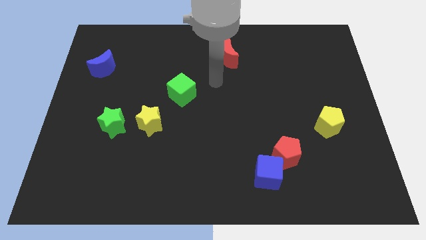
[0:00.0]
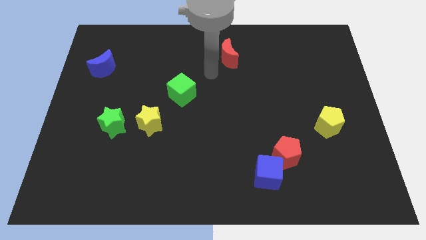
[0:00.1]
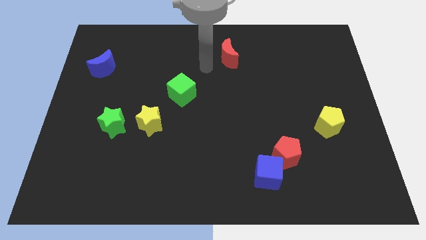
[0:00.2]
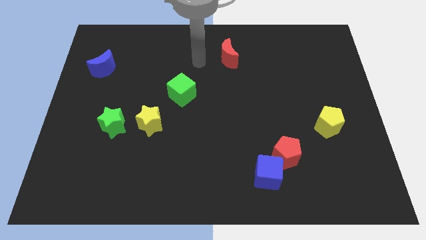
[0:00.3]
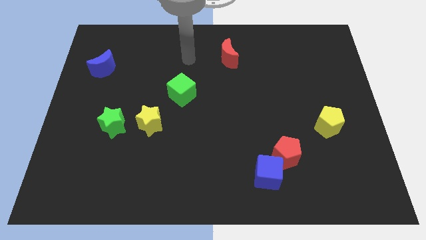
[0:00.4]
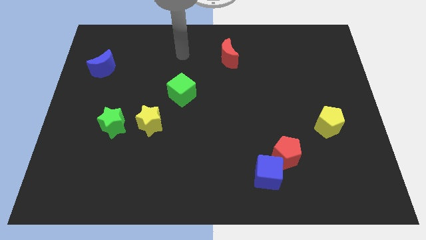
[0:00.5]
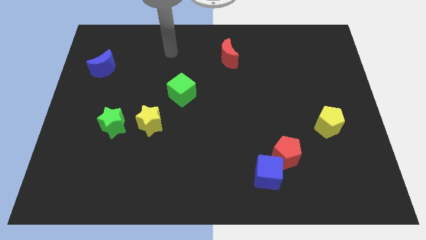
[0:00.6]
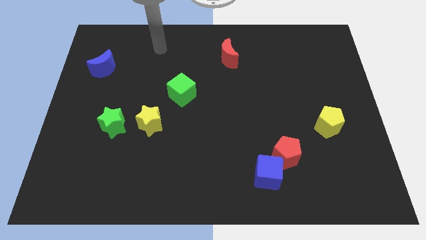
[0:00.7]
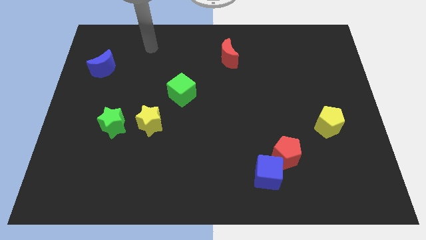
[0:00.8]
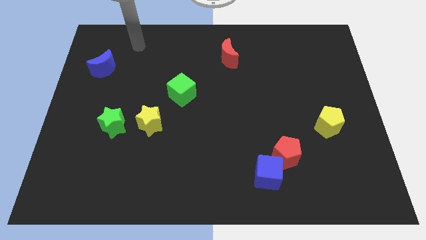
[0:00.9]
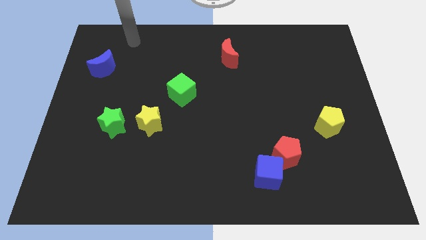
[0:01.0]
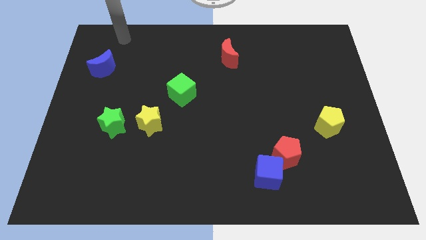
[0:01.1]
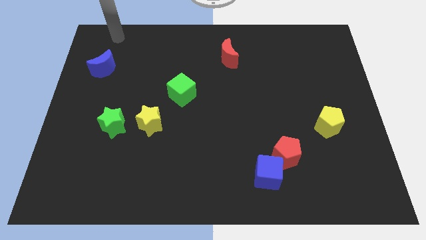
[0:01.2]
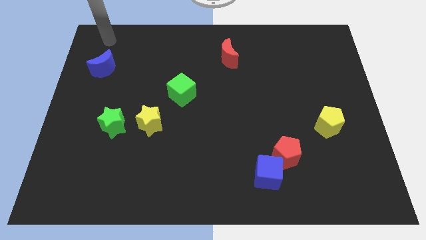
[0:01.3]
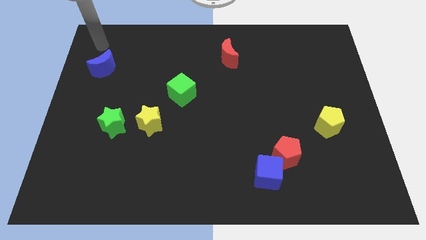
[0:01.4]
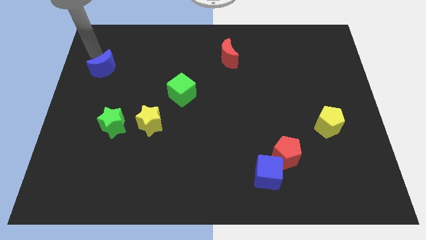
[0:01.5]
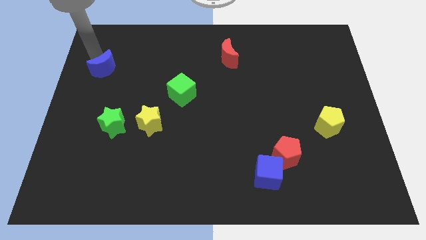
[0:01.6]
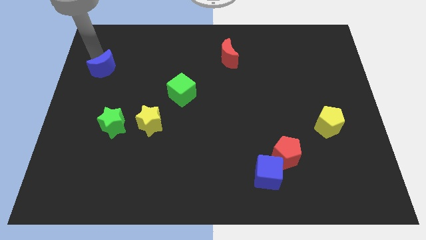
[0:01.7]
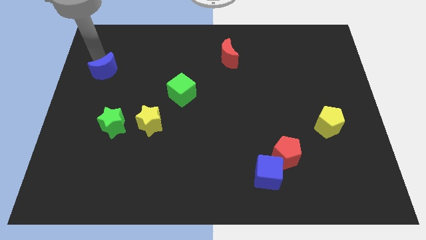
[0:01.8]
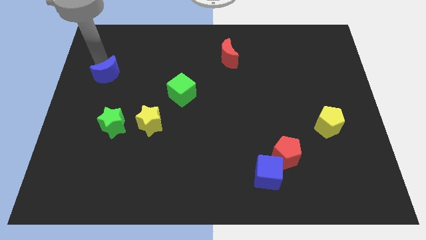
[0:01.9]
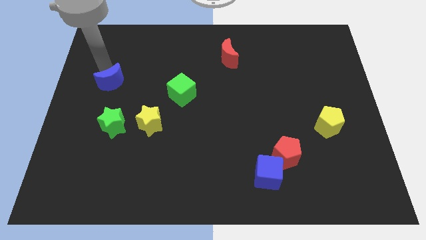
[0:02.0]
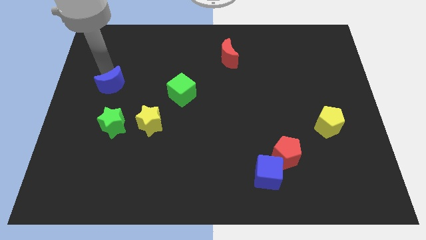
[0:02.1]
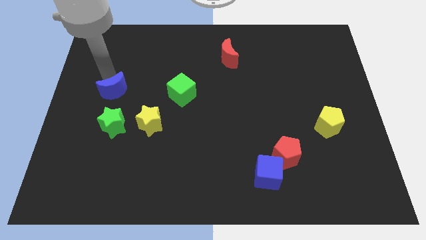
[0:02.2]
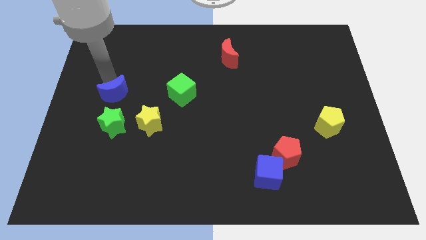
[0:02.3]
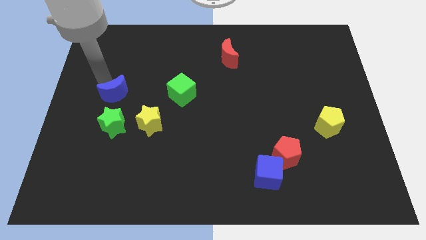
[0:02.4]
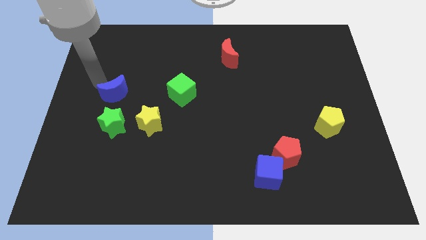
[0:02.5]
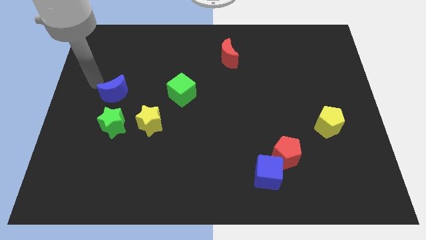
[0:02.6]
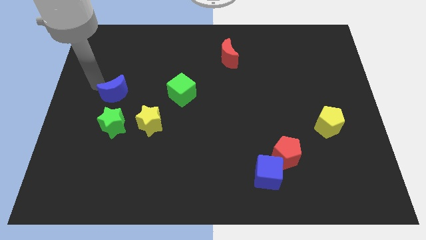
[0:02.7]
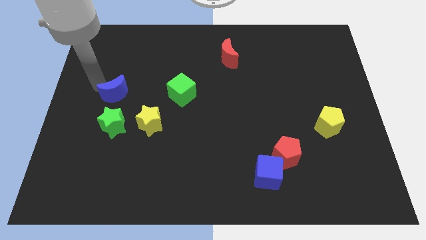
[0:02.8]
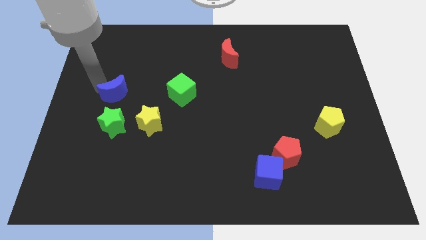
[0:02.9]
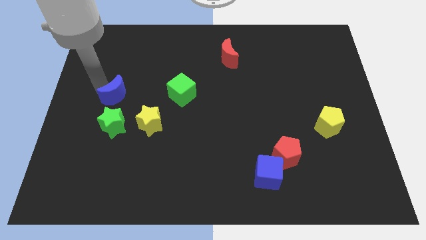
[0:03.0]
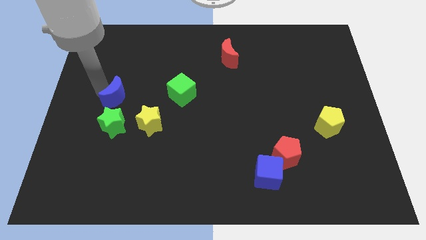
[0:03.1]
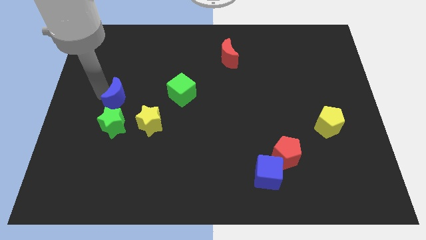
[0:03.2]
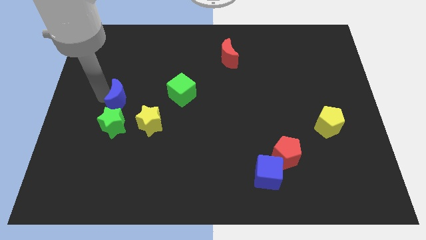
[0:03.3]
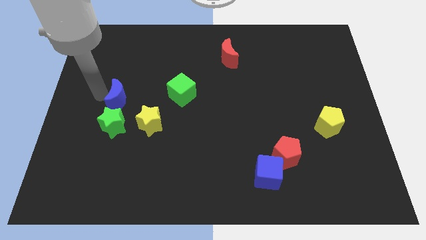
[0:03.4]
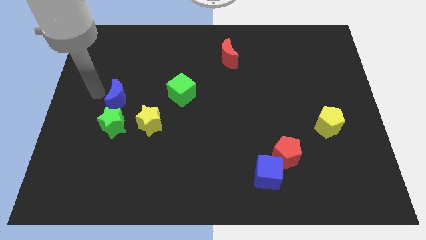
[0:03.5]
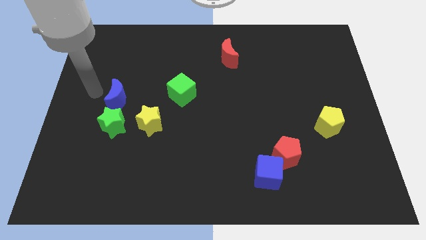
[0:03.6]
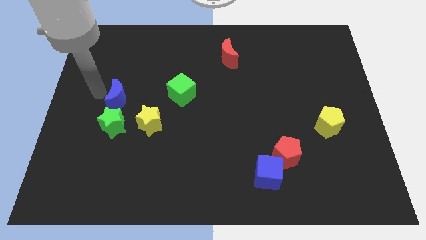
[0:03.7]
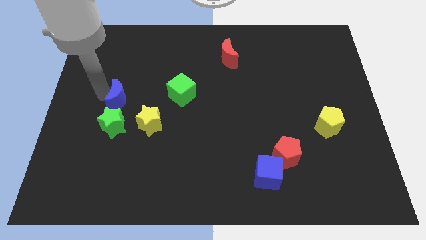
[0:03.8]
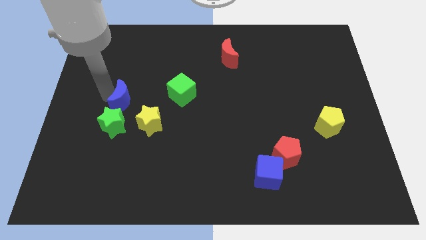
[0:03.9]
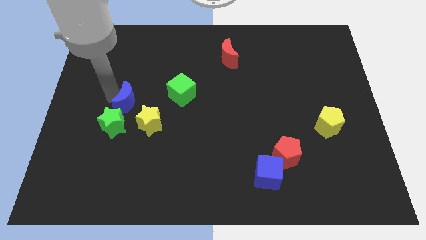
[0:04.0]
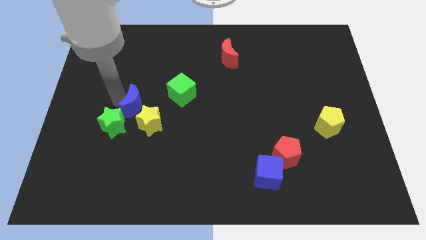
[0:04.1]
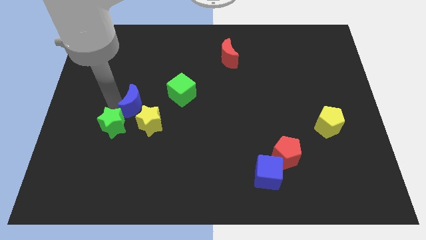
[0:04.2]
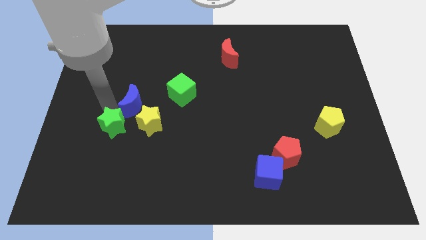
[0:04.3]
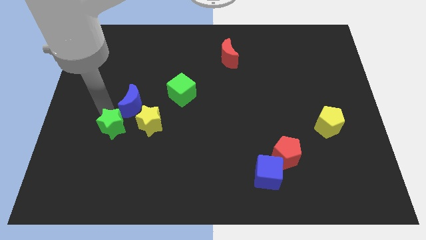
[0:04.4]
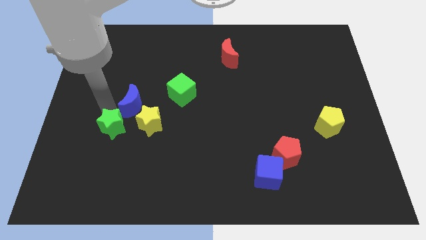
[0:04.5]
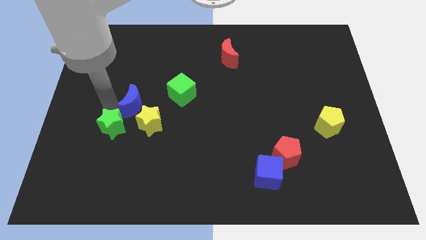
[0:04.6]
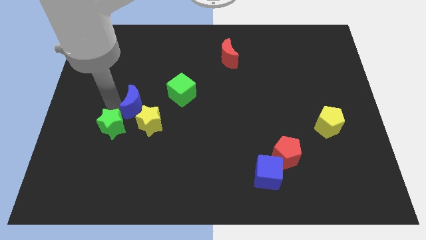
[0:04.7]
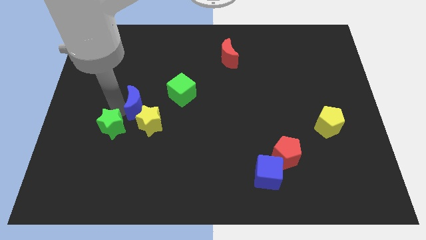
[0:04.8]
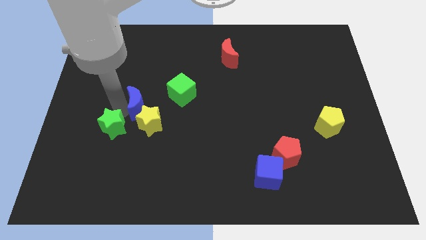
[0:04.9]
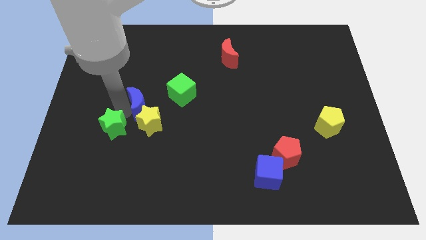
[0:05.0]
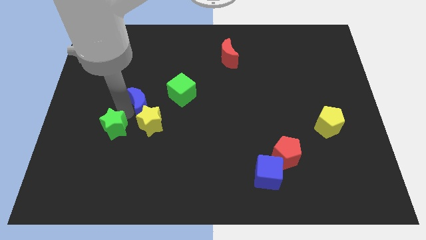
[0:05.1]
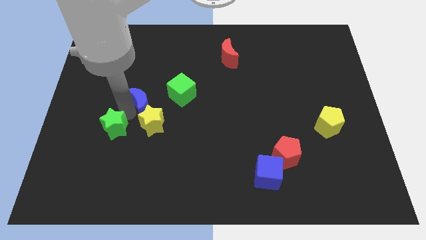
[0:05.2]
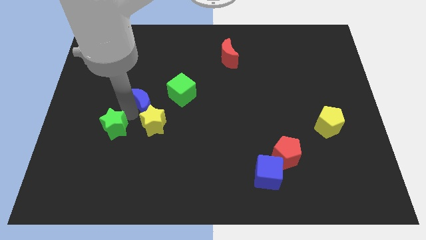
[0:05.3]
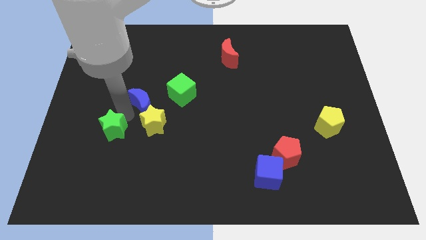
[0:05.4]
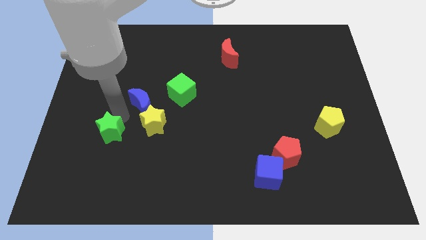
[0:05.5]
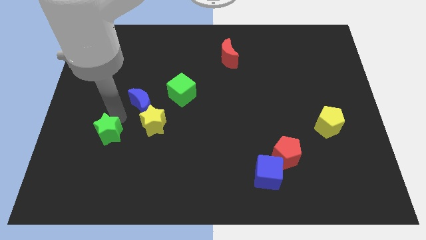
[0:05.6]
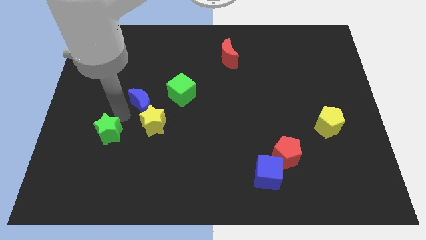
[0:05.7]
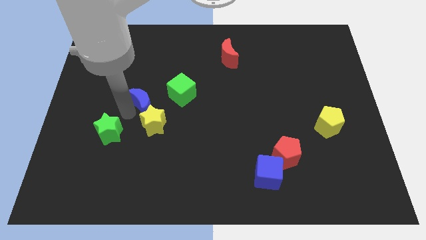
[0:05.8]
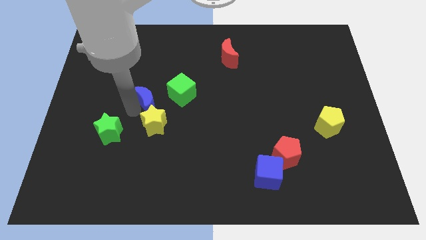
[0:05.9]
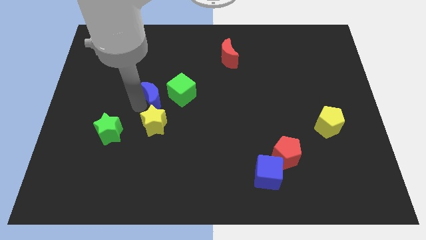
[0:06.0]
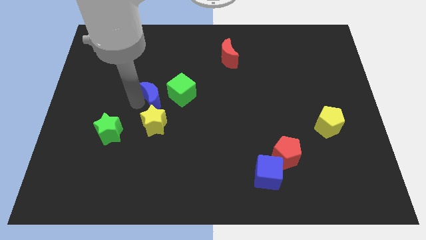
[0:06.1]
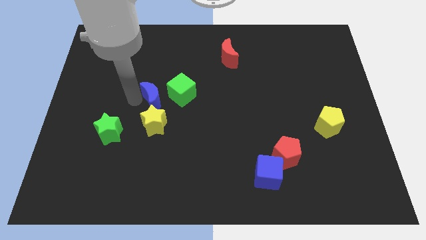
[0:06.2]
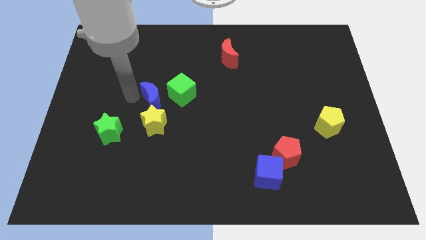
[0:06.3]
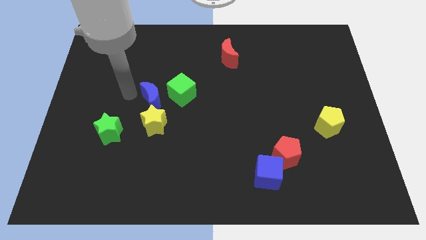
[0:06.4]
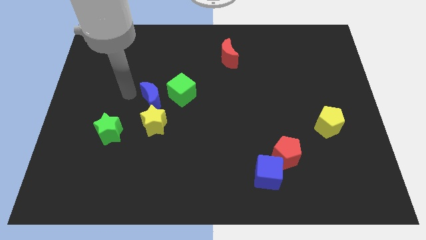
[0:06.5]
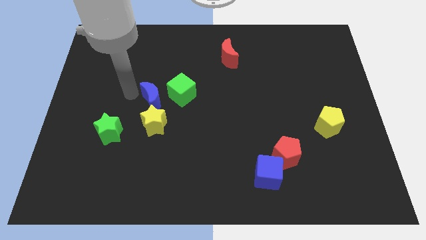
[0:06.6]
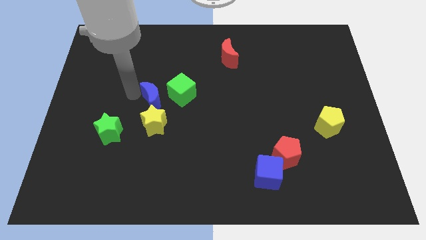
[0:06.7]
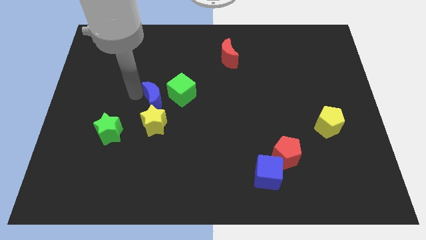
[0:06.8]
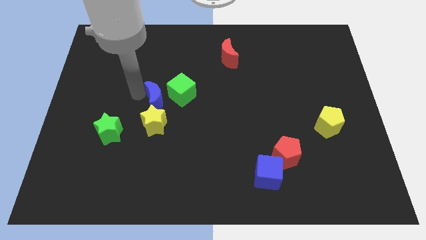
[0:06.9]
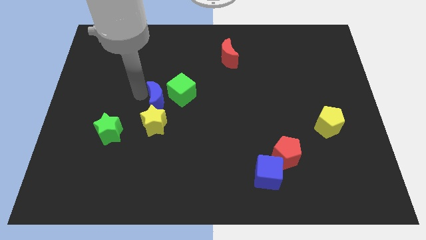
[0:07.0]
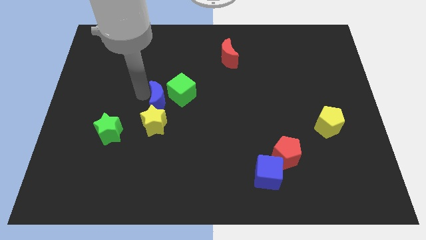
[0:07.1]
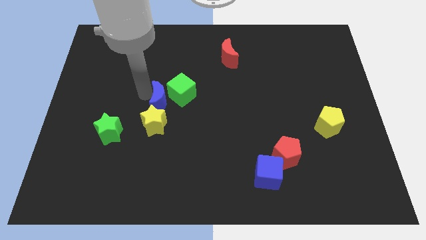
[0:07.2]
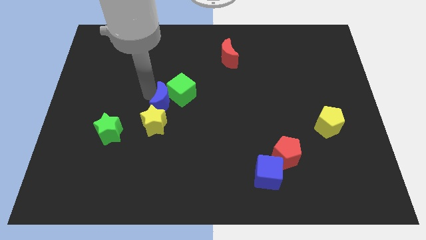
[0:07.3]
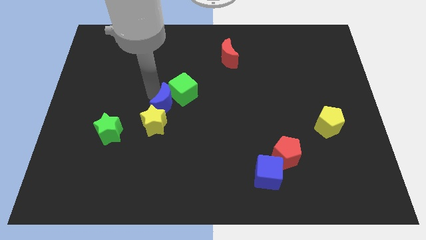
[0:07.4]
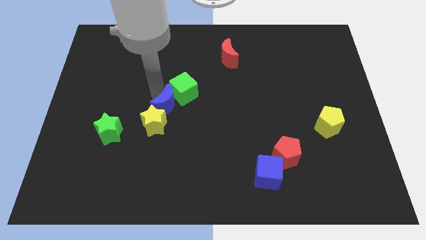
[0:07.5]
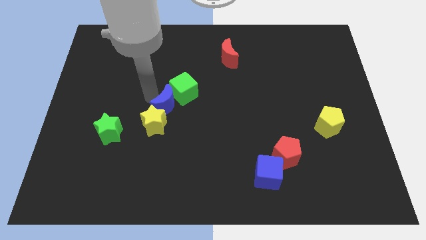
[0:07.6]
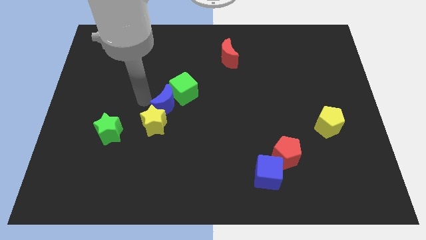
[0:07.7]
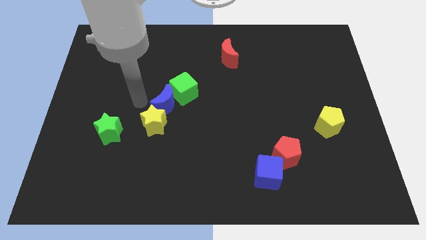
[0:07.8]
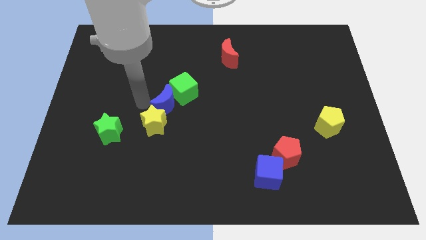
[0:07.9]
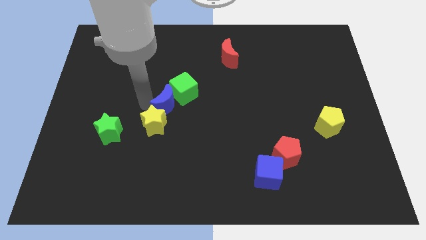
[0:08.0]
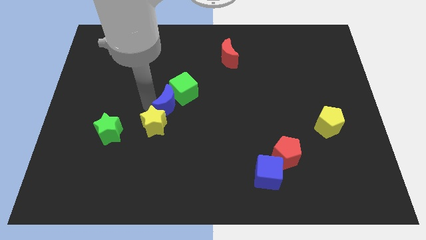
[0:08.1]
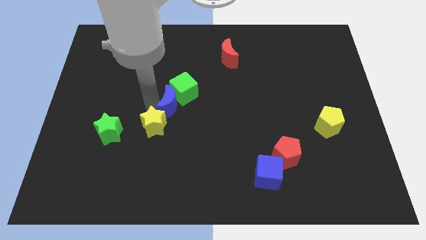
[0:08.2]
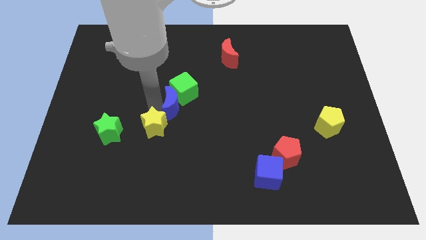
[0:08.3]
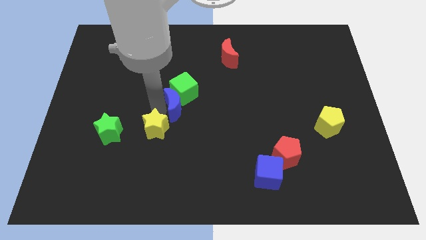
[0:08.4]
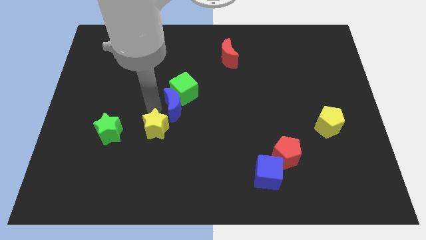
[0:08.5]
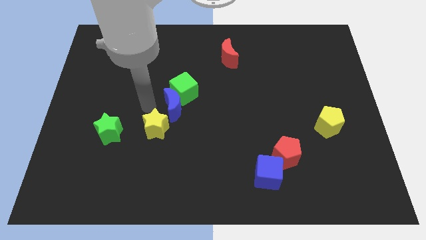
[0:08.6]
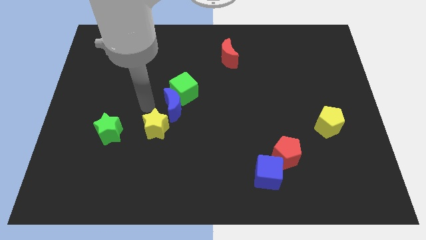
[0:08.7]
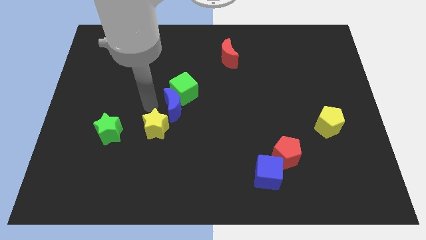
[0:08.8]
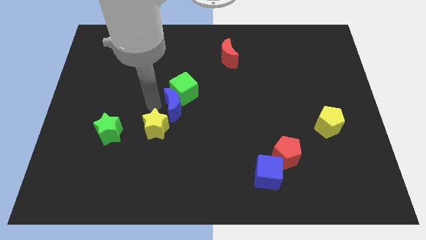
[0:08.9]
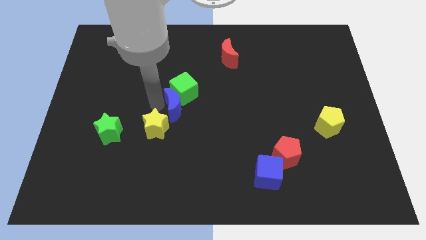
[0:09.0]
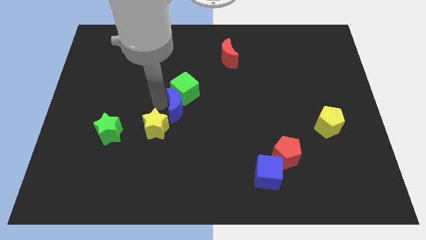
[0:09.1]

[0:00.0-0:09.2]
put the blue moon to the bottom right of the green cube
